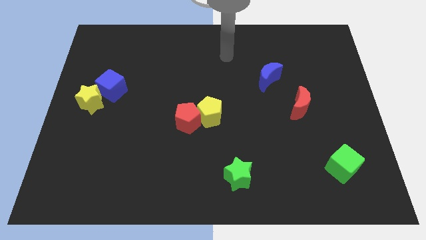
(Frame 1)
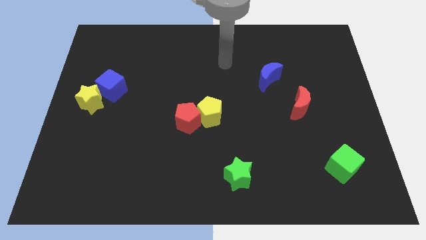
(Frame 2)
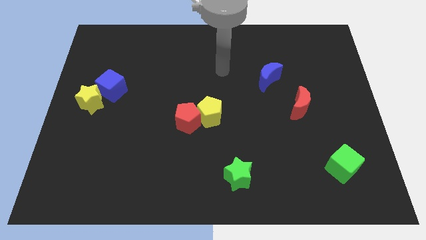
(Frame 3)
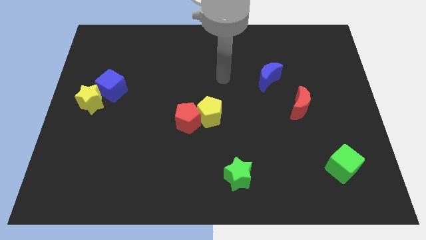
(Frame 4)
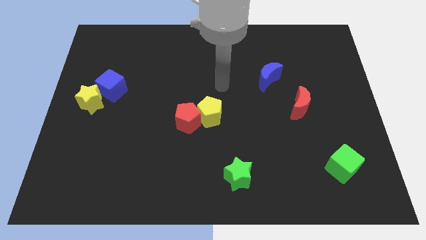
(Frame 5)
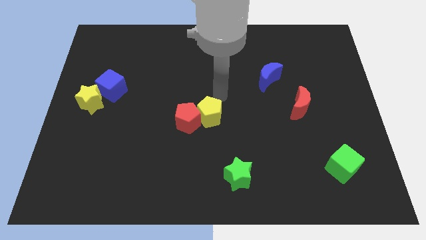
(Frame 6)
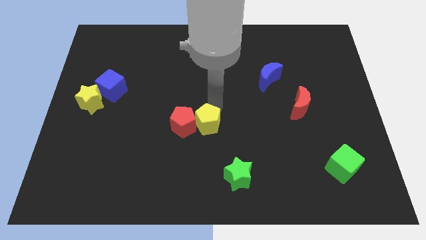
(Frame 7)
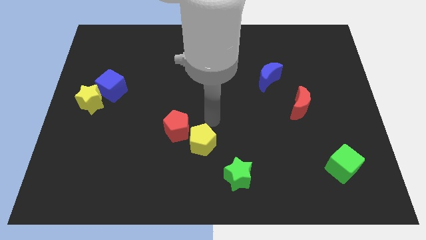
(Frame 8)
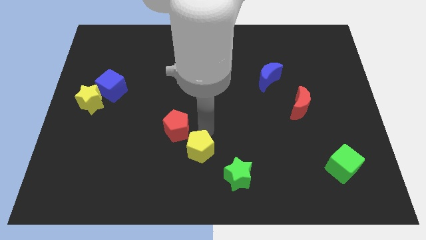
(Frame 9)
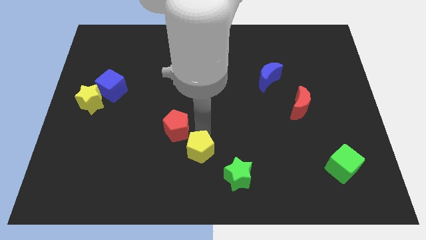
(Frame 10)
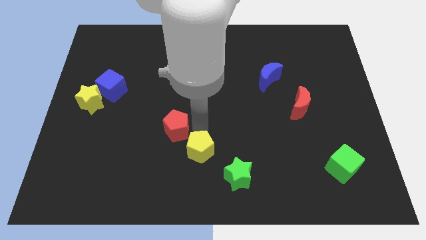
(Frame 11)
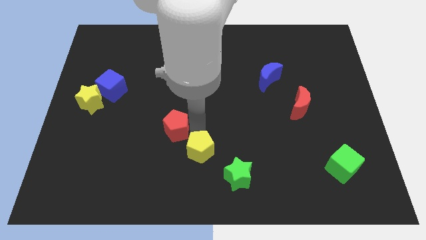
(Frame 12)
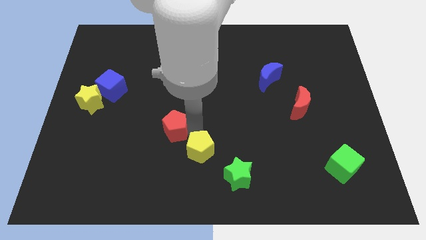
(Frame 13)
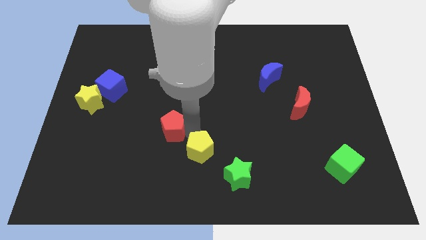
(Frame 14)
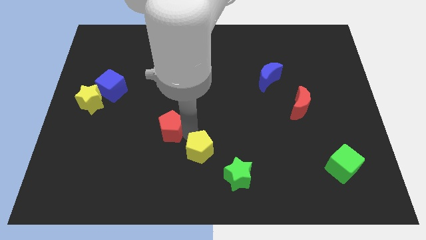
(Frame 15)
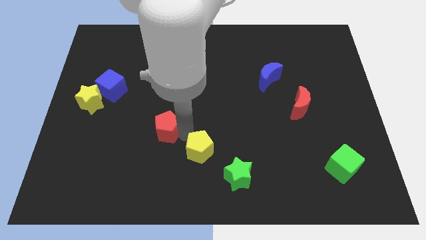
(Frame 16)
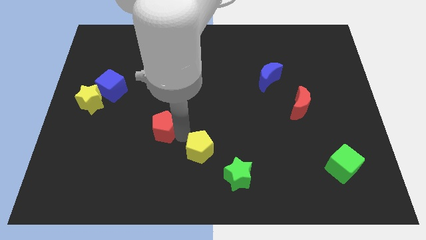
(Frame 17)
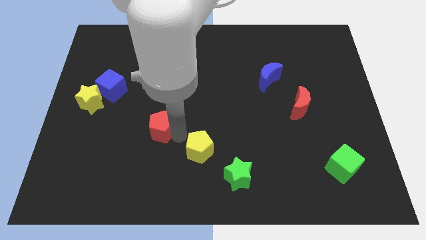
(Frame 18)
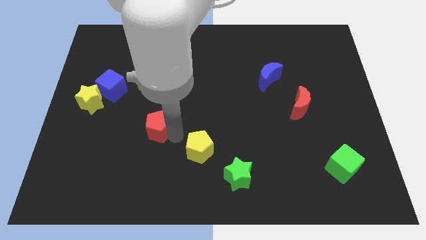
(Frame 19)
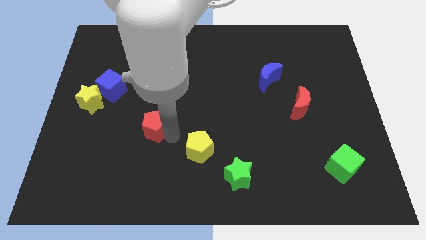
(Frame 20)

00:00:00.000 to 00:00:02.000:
push the red pentagon a little bit to the left

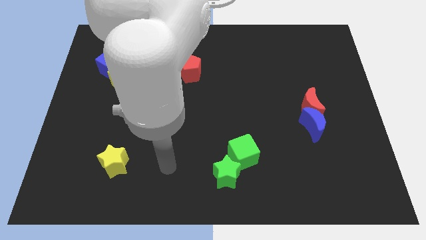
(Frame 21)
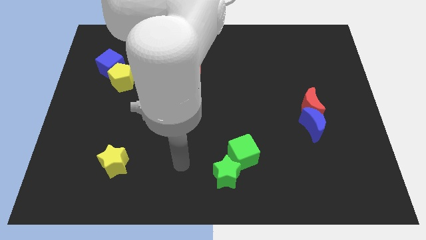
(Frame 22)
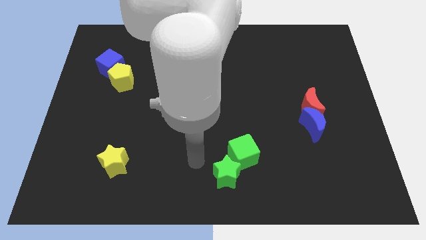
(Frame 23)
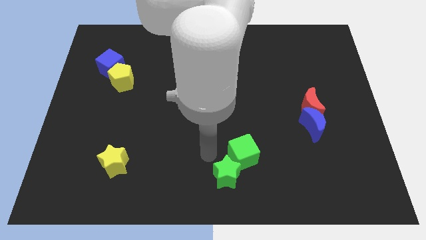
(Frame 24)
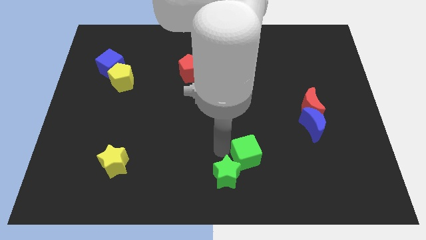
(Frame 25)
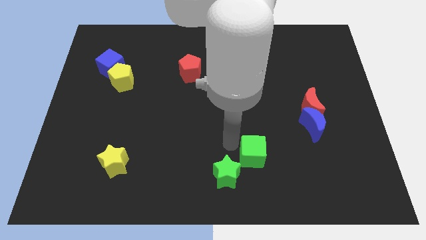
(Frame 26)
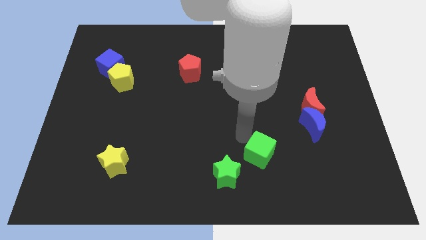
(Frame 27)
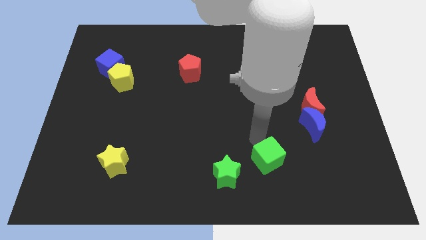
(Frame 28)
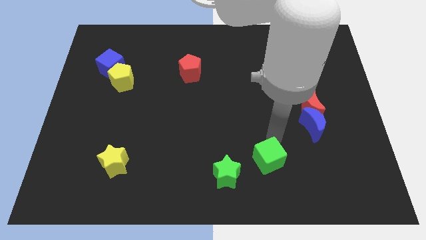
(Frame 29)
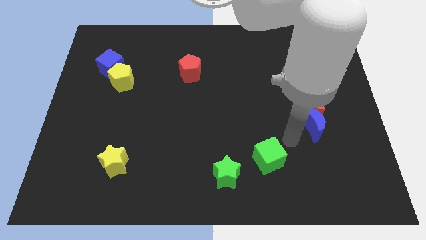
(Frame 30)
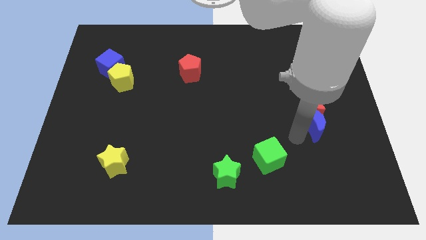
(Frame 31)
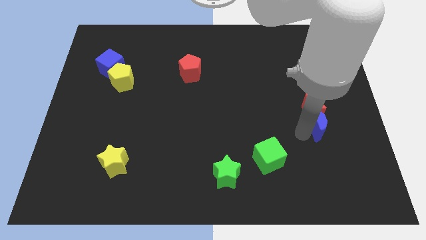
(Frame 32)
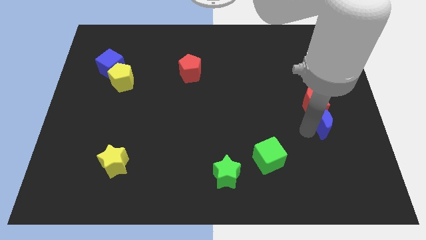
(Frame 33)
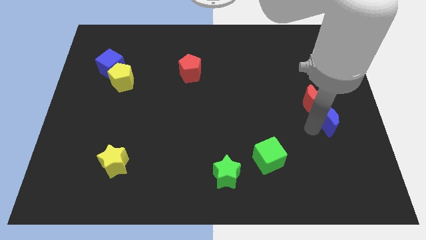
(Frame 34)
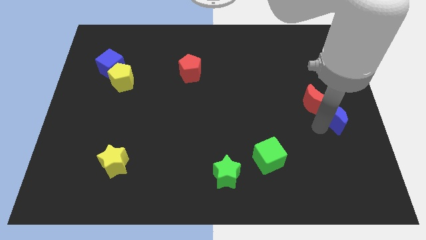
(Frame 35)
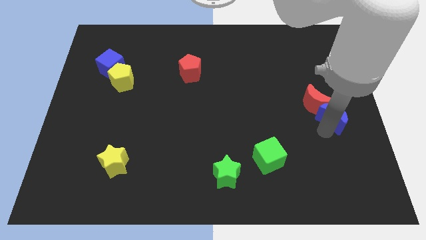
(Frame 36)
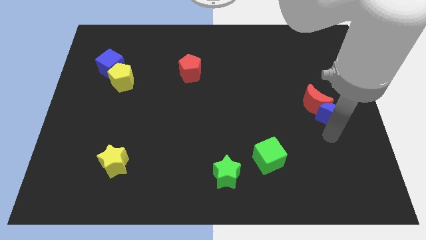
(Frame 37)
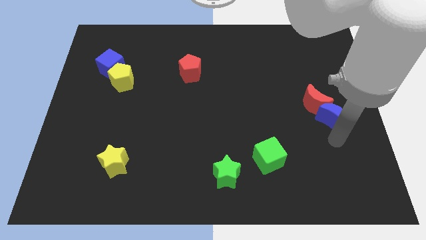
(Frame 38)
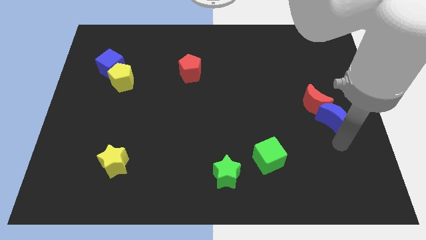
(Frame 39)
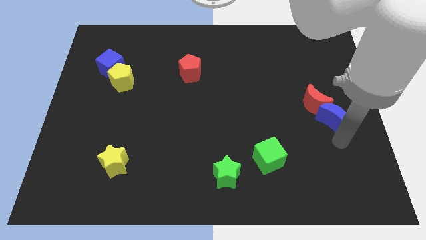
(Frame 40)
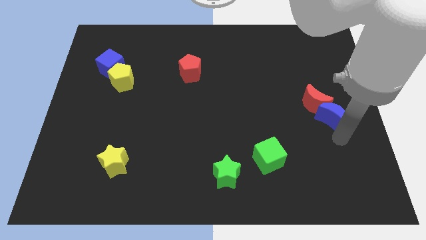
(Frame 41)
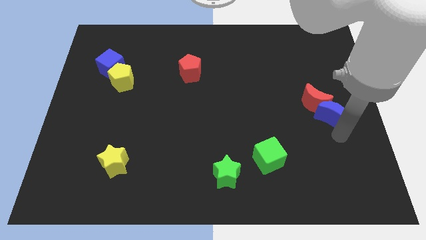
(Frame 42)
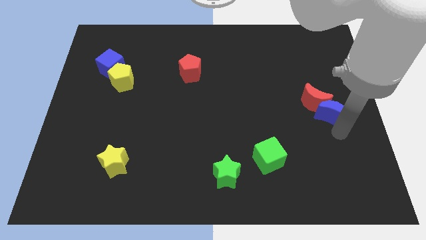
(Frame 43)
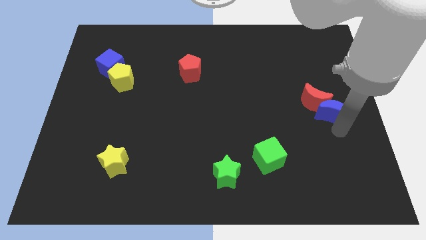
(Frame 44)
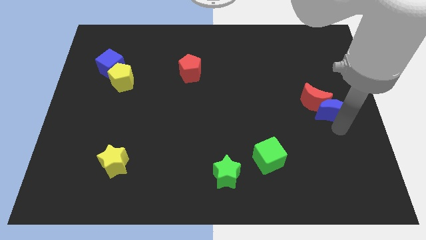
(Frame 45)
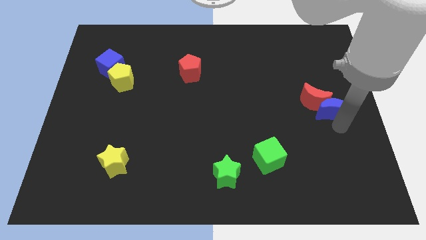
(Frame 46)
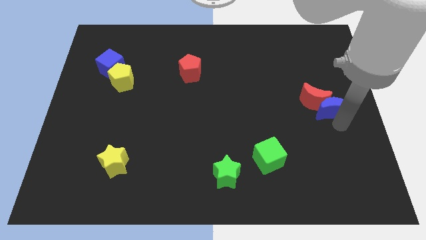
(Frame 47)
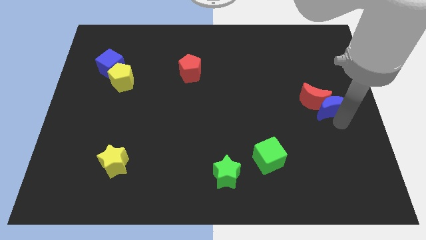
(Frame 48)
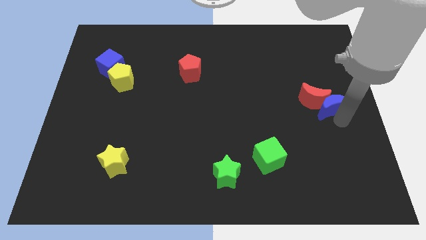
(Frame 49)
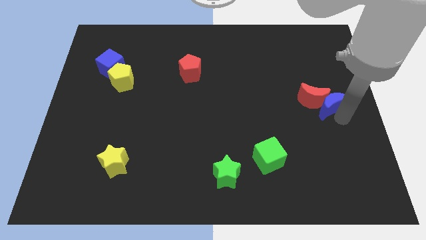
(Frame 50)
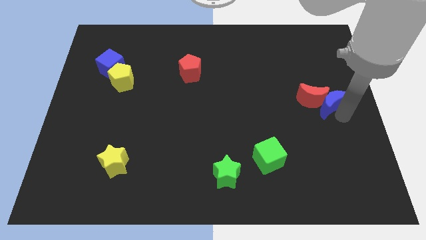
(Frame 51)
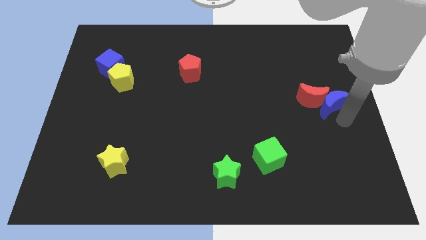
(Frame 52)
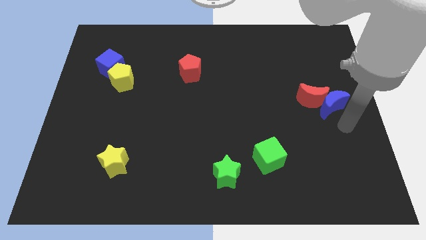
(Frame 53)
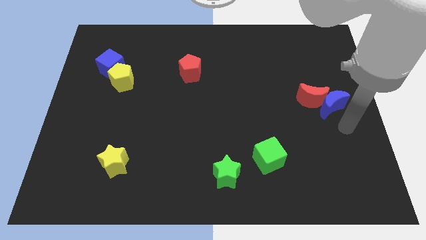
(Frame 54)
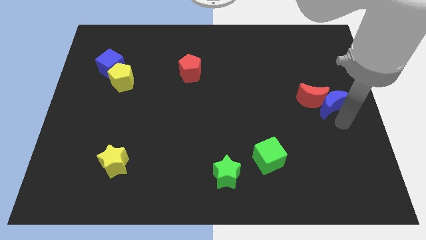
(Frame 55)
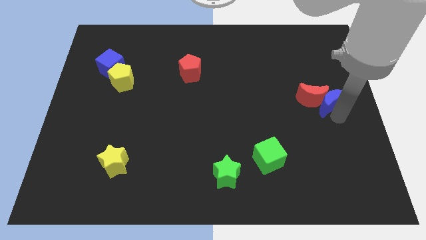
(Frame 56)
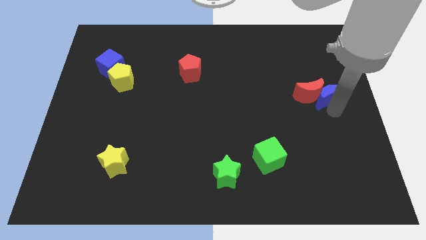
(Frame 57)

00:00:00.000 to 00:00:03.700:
slightly slide the blue moon up

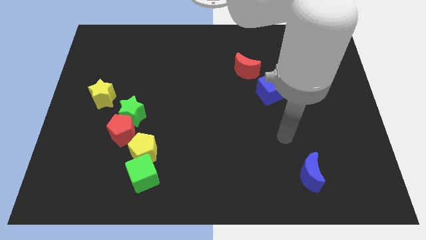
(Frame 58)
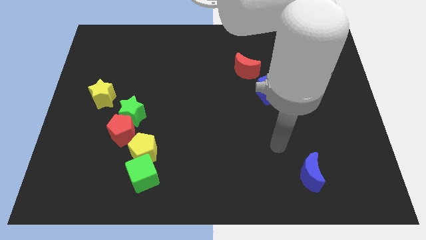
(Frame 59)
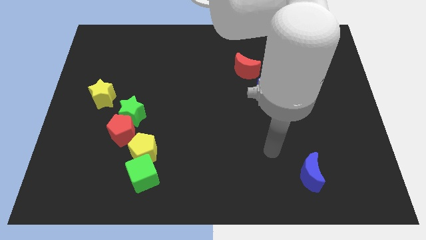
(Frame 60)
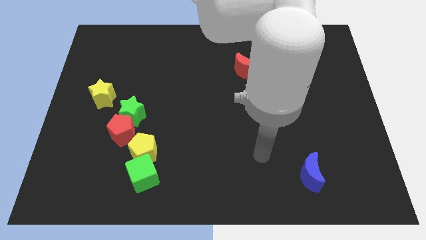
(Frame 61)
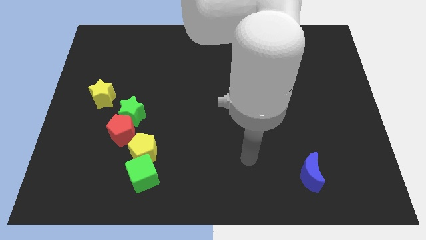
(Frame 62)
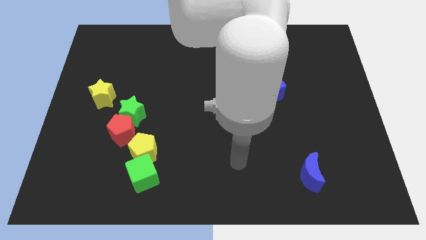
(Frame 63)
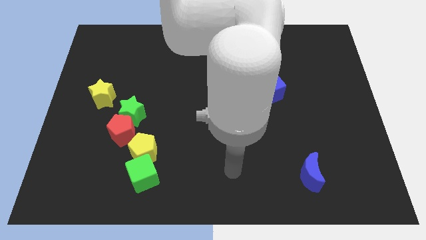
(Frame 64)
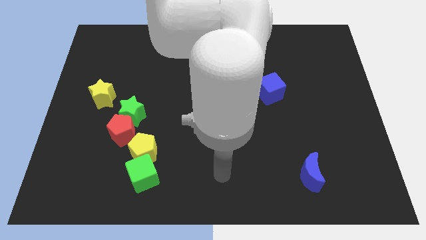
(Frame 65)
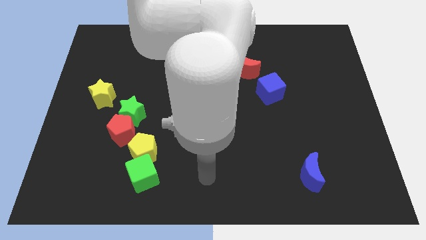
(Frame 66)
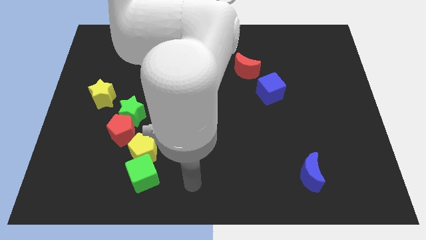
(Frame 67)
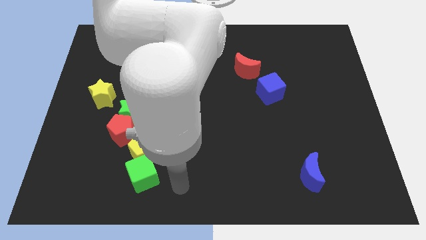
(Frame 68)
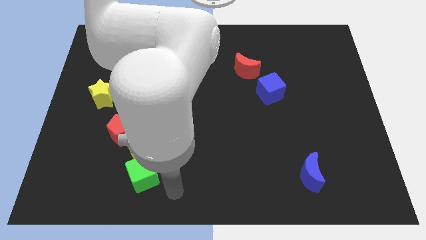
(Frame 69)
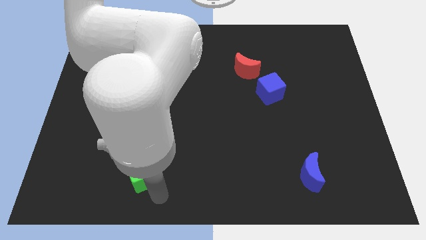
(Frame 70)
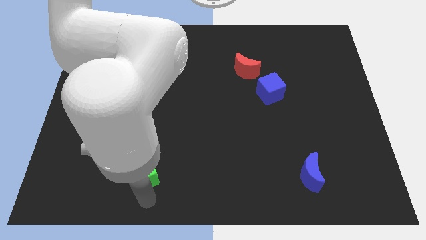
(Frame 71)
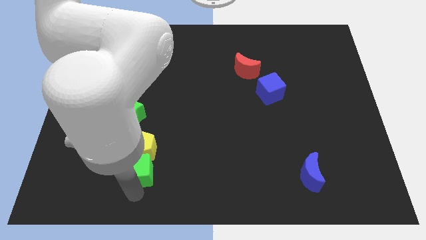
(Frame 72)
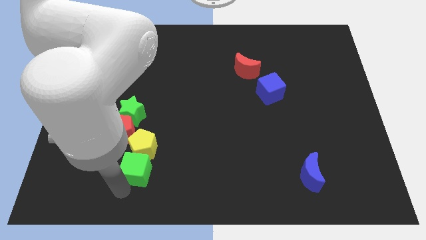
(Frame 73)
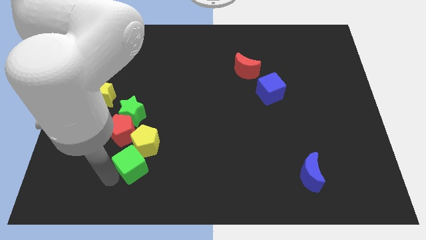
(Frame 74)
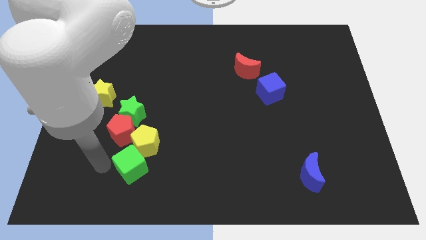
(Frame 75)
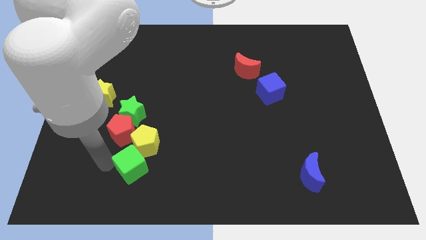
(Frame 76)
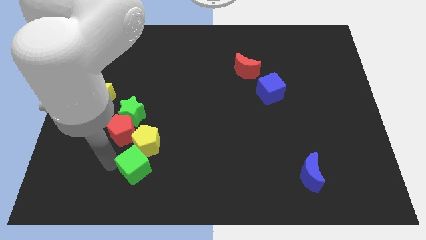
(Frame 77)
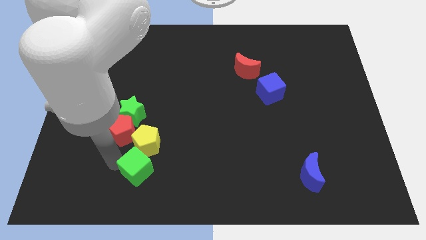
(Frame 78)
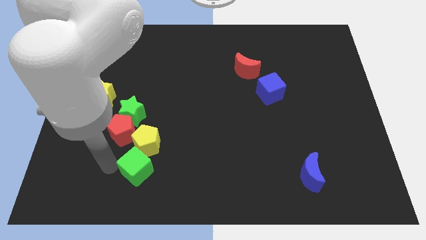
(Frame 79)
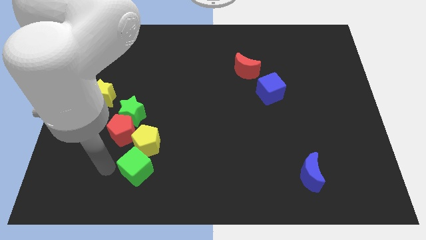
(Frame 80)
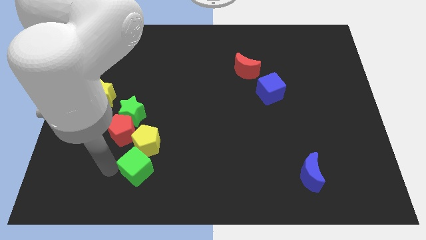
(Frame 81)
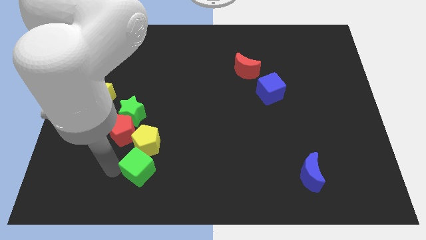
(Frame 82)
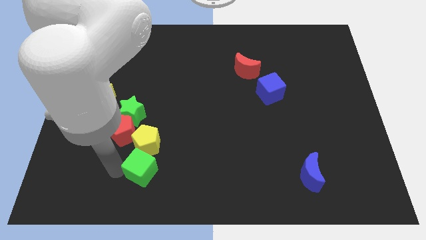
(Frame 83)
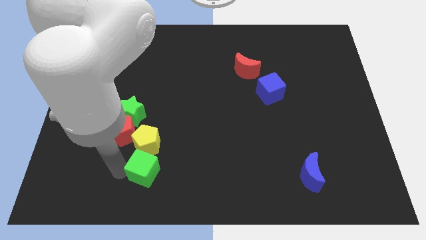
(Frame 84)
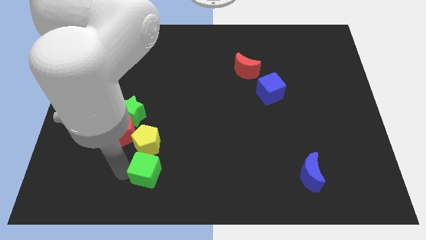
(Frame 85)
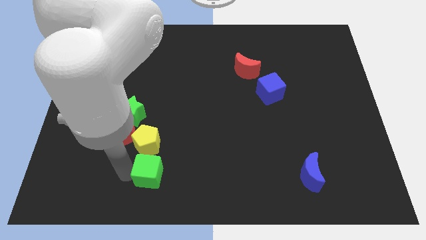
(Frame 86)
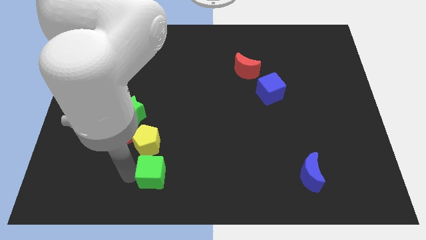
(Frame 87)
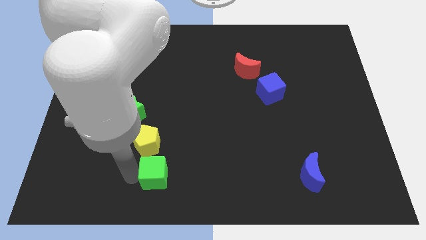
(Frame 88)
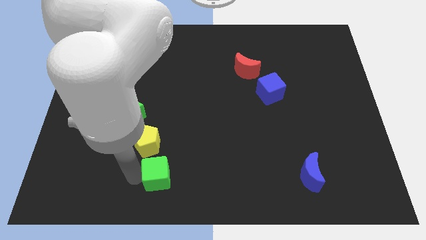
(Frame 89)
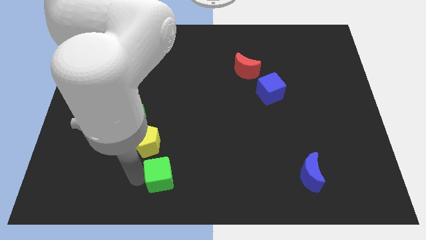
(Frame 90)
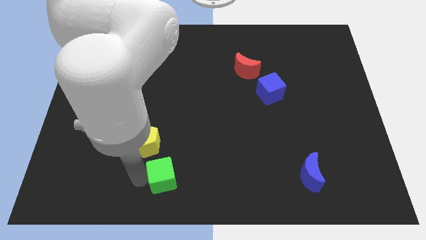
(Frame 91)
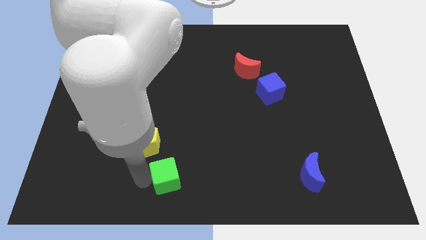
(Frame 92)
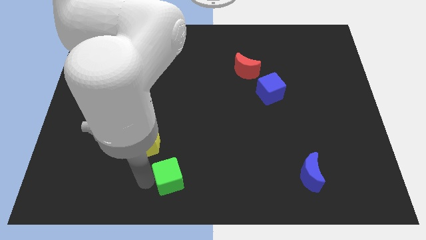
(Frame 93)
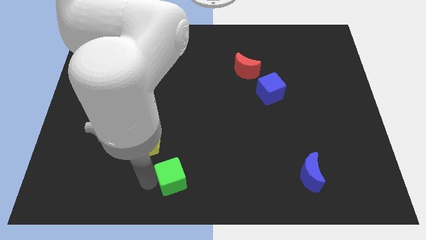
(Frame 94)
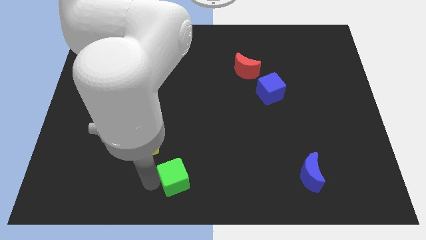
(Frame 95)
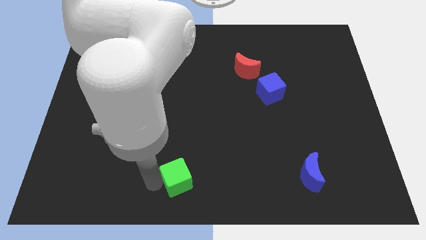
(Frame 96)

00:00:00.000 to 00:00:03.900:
move the green cube to the right somewhat
